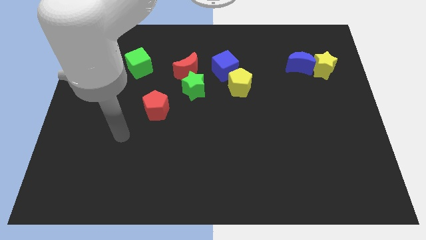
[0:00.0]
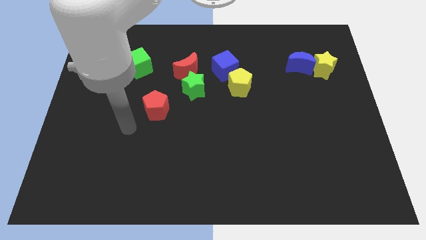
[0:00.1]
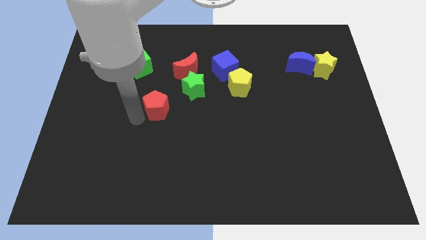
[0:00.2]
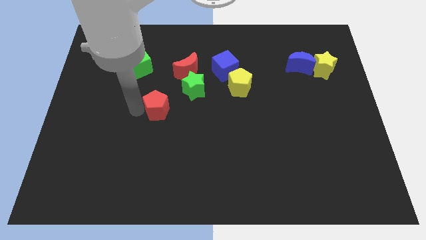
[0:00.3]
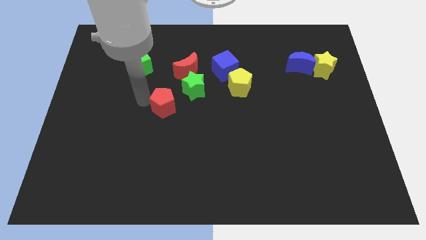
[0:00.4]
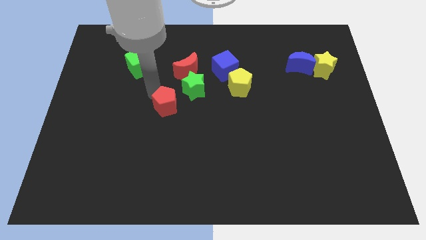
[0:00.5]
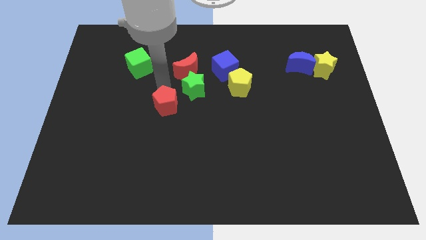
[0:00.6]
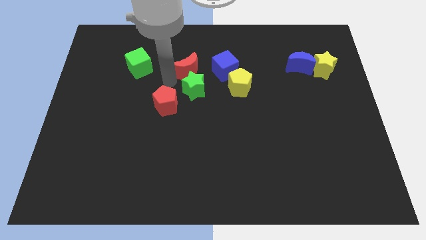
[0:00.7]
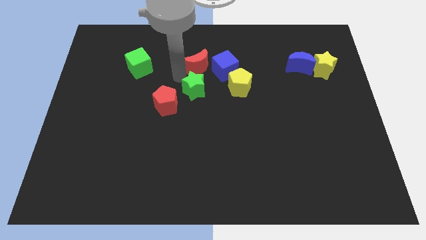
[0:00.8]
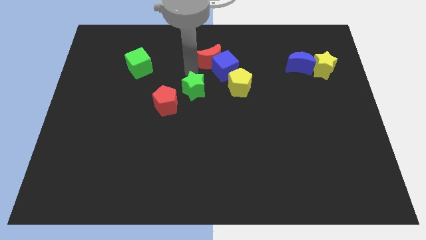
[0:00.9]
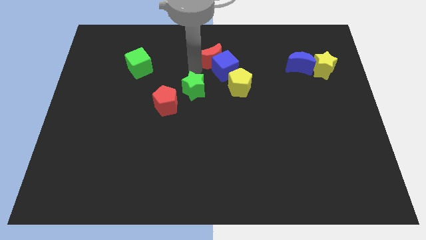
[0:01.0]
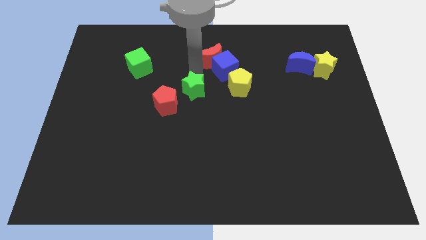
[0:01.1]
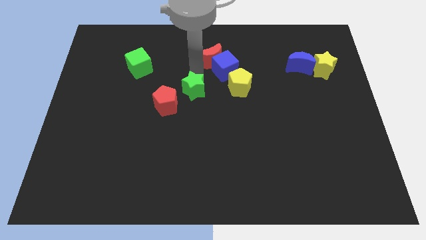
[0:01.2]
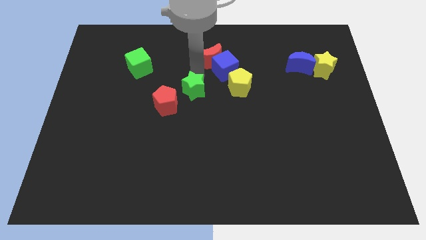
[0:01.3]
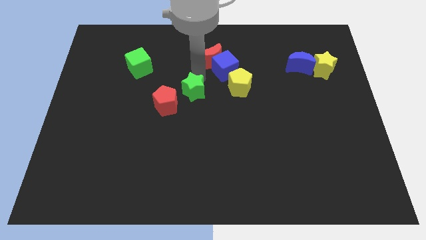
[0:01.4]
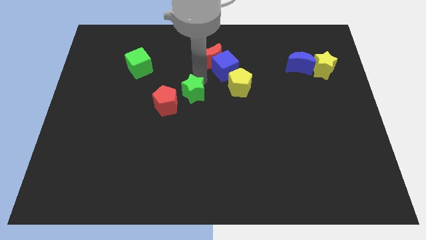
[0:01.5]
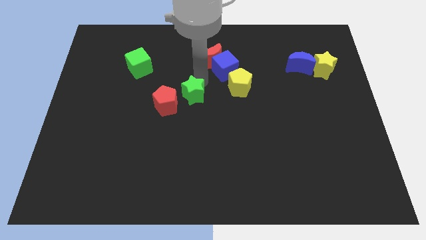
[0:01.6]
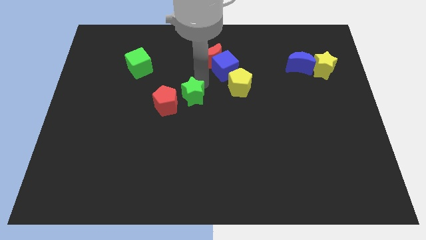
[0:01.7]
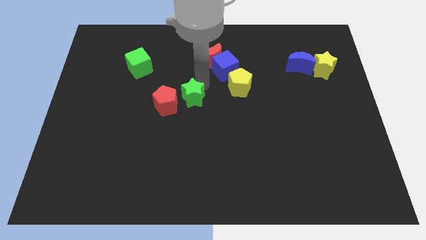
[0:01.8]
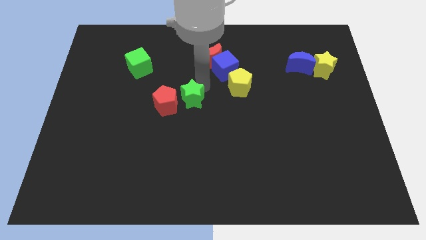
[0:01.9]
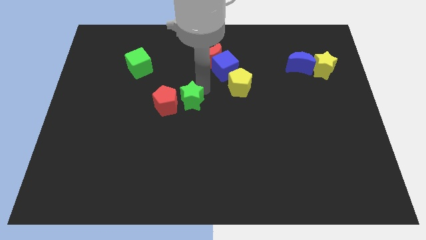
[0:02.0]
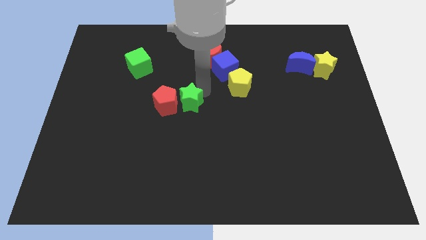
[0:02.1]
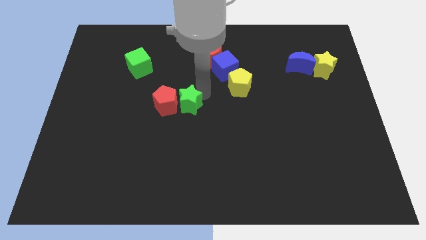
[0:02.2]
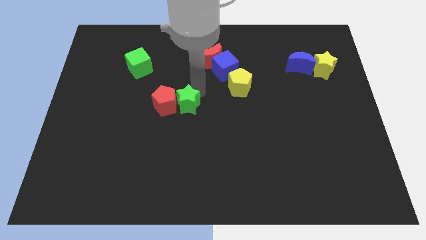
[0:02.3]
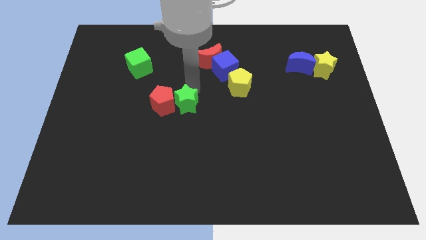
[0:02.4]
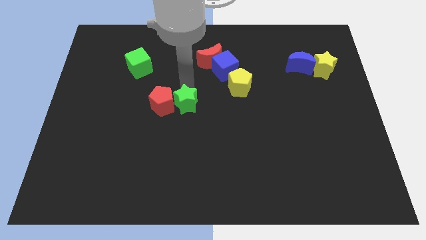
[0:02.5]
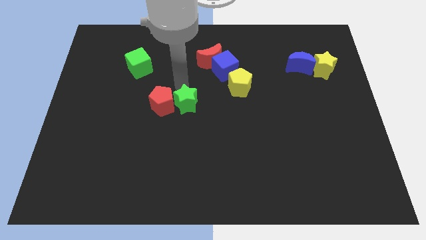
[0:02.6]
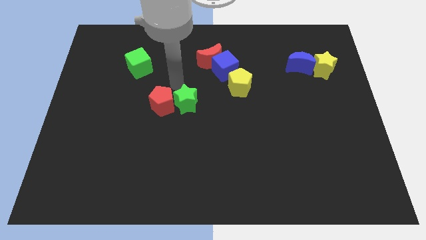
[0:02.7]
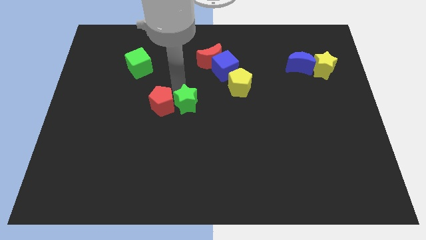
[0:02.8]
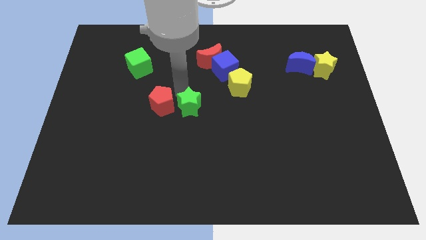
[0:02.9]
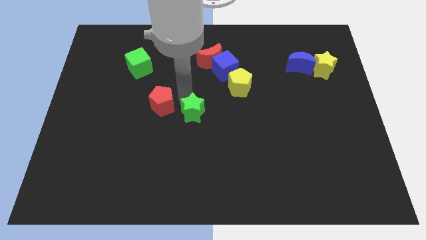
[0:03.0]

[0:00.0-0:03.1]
move the green star a little bit downwards

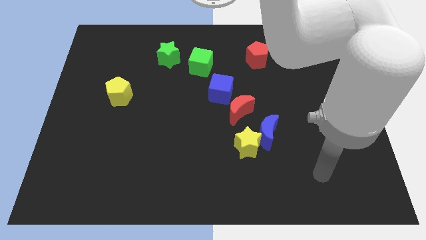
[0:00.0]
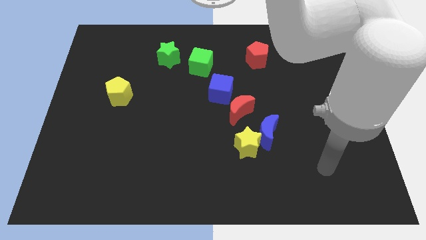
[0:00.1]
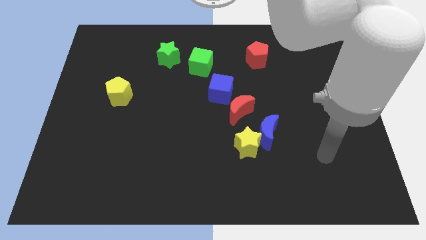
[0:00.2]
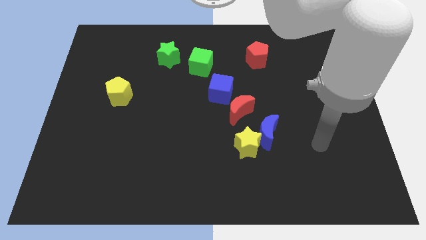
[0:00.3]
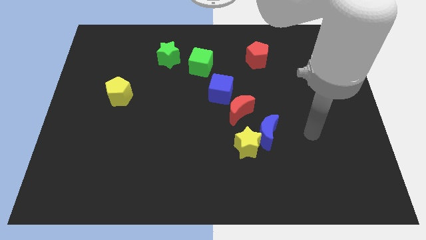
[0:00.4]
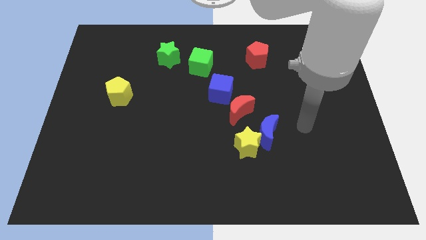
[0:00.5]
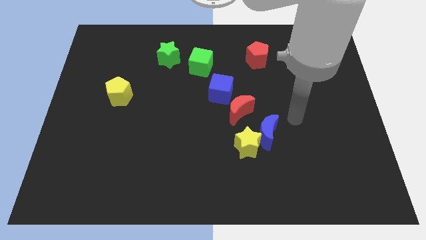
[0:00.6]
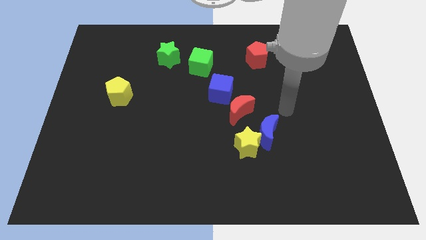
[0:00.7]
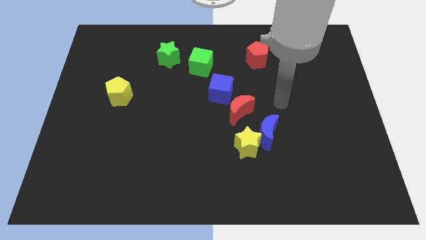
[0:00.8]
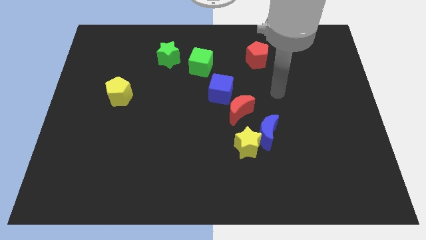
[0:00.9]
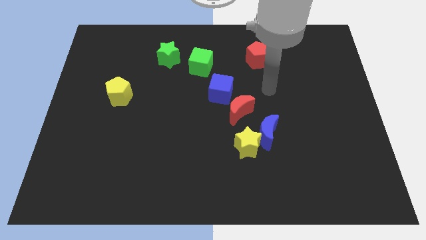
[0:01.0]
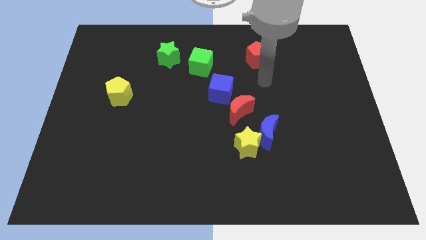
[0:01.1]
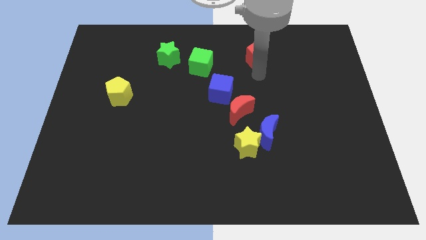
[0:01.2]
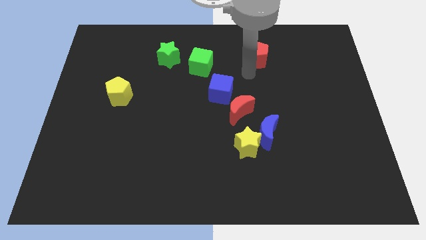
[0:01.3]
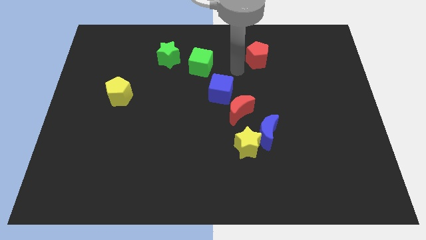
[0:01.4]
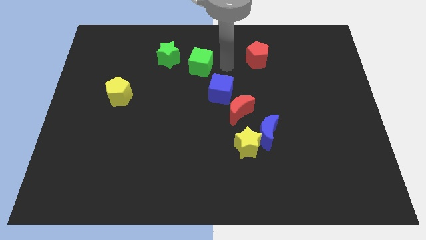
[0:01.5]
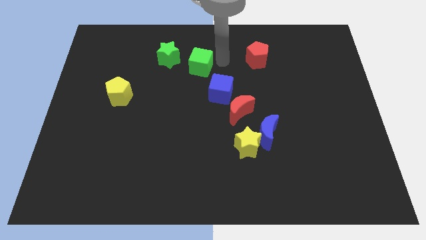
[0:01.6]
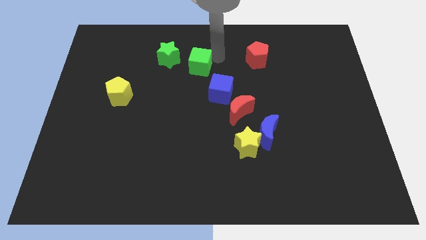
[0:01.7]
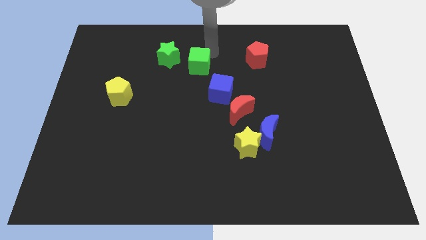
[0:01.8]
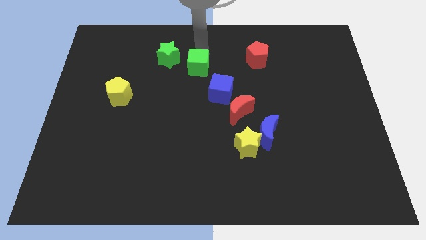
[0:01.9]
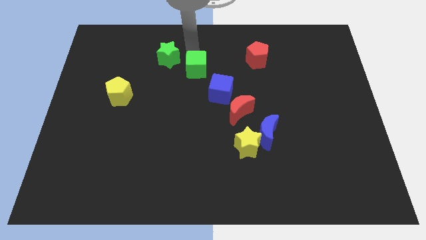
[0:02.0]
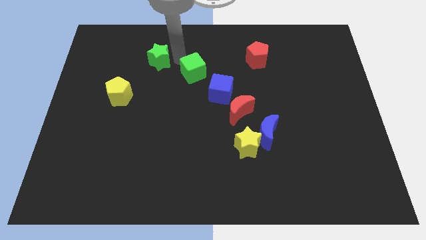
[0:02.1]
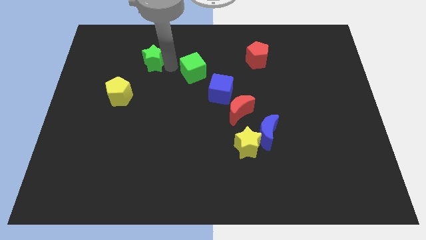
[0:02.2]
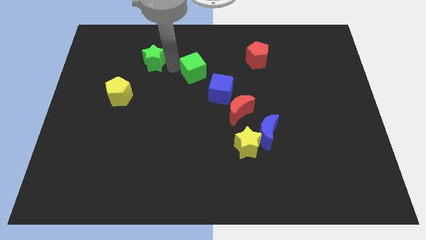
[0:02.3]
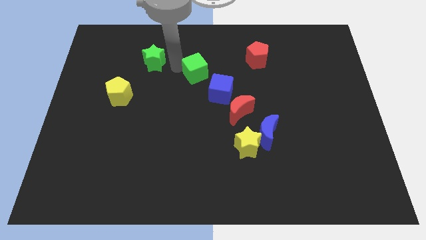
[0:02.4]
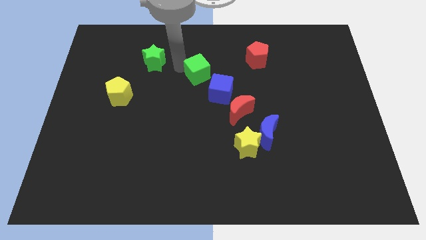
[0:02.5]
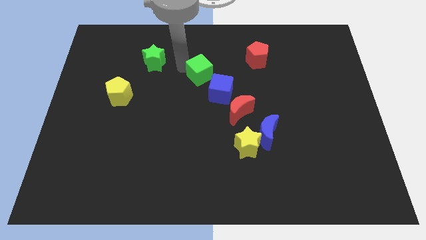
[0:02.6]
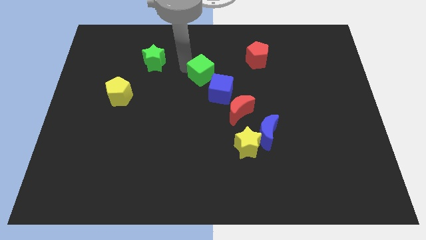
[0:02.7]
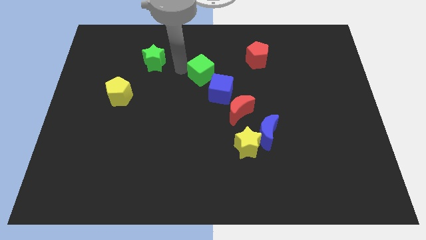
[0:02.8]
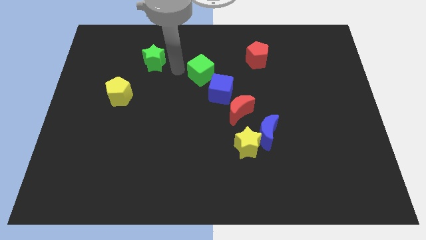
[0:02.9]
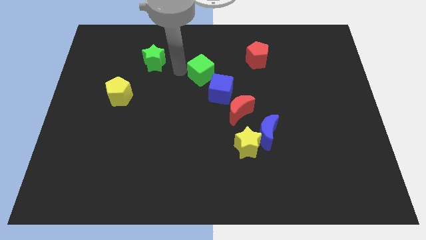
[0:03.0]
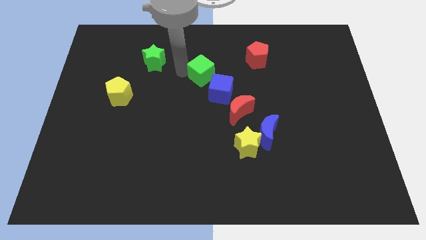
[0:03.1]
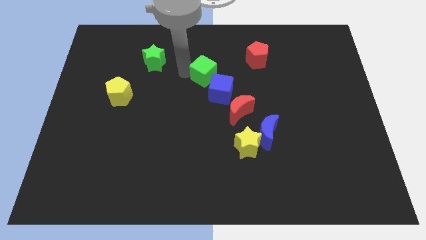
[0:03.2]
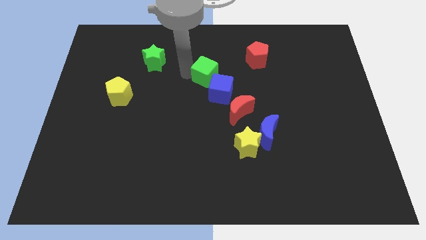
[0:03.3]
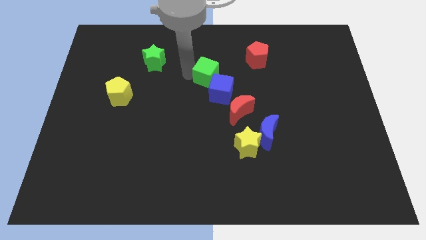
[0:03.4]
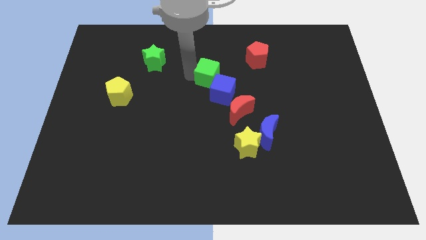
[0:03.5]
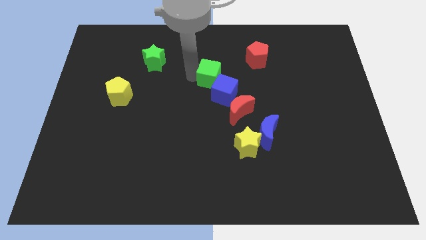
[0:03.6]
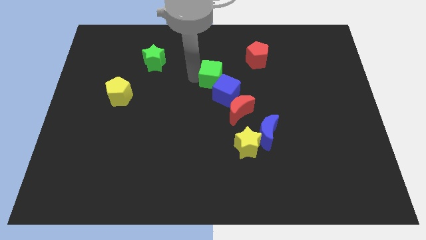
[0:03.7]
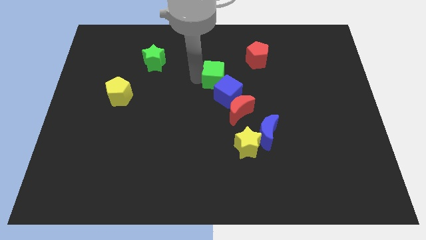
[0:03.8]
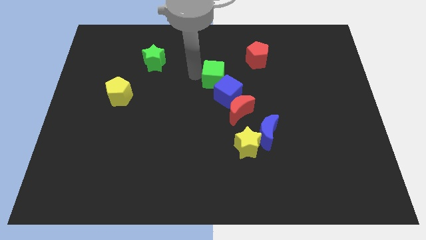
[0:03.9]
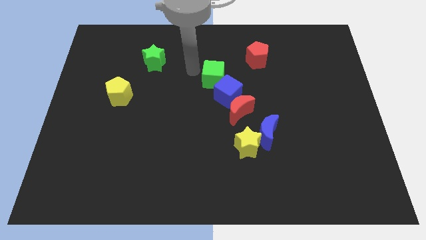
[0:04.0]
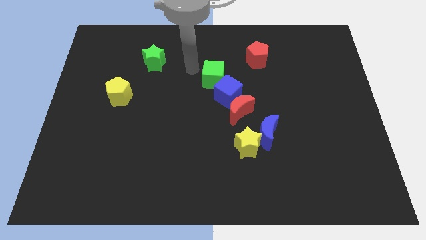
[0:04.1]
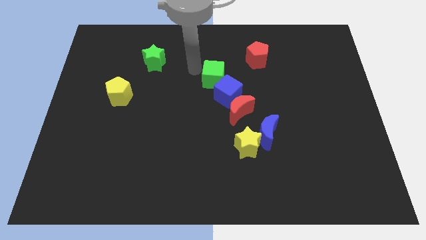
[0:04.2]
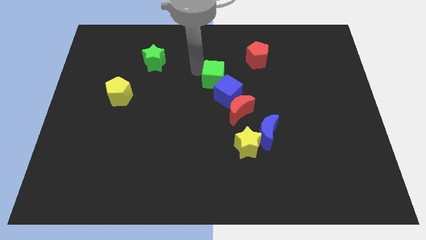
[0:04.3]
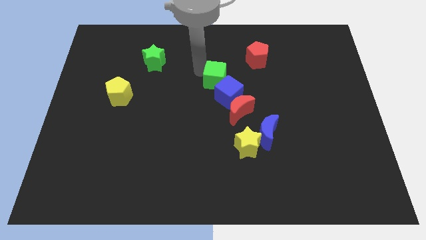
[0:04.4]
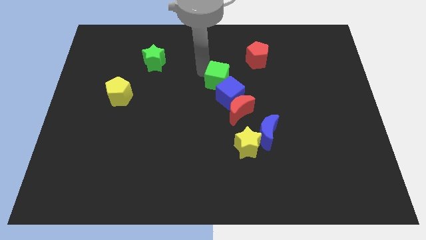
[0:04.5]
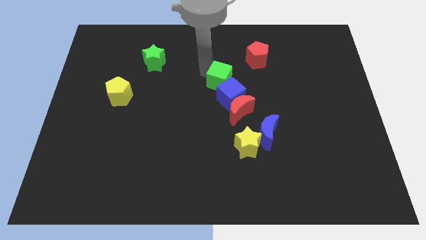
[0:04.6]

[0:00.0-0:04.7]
slightly push the green cube downwards and to the right diagonally
